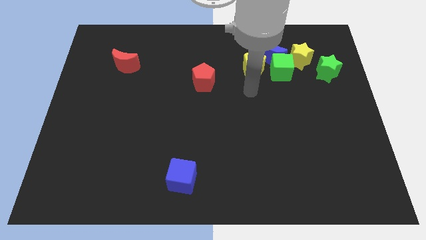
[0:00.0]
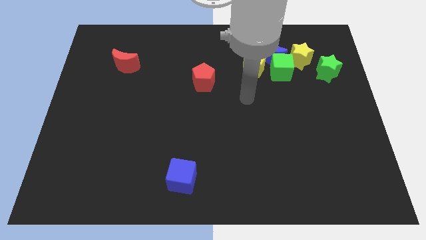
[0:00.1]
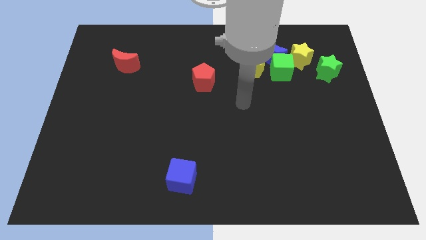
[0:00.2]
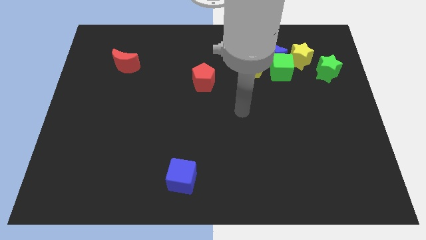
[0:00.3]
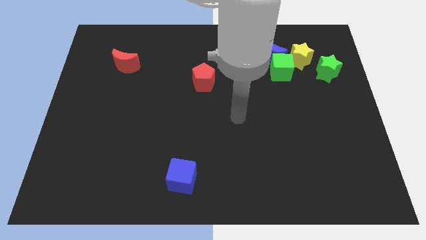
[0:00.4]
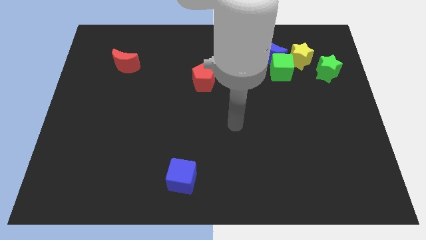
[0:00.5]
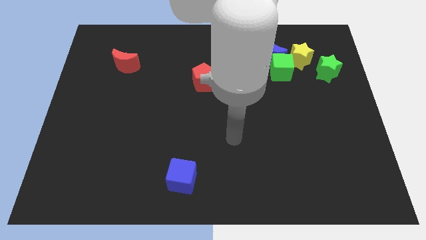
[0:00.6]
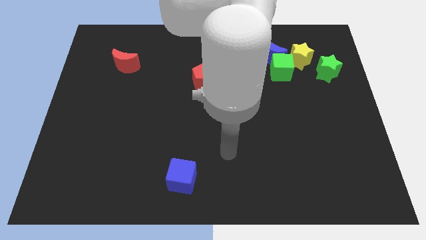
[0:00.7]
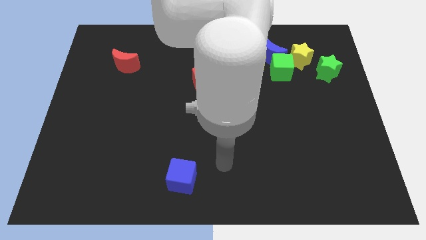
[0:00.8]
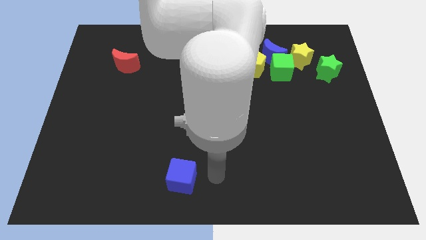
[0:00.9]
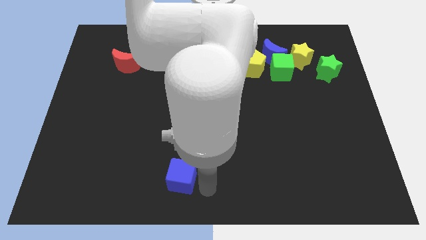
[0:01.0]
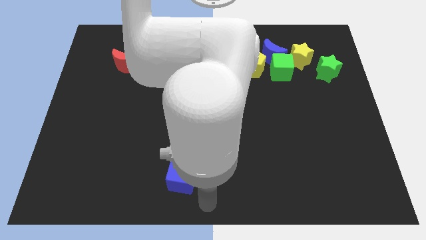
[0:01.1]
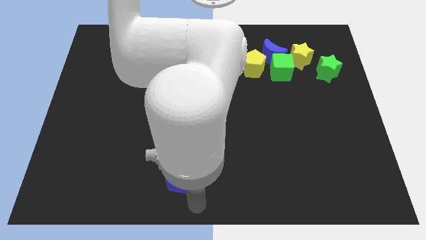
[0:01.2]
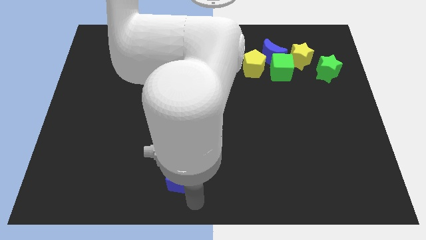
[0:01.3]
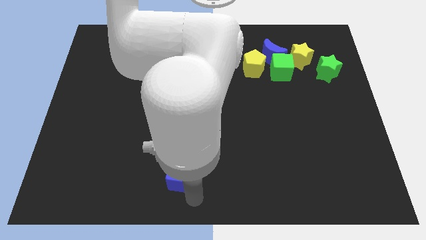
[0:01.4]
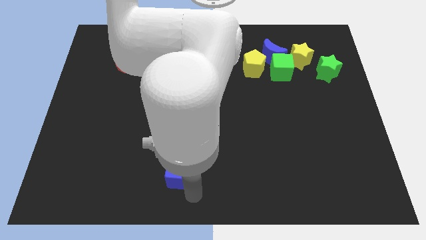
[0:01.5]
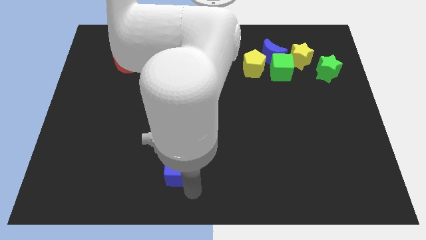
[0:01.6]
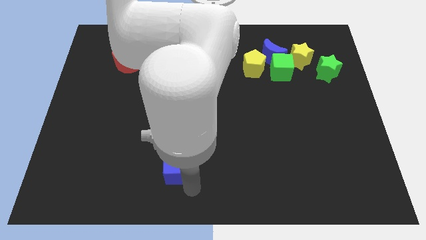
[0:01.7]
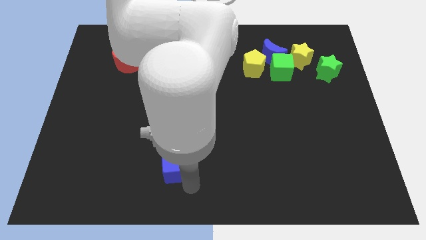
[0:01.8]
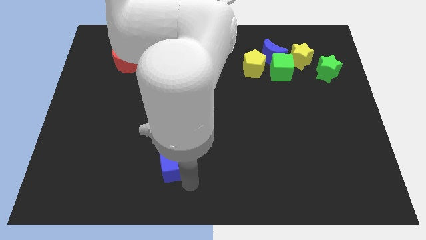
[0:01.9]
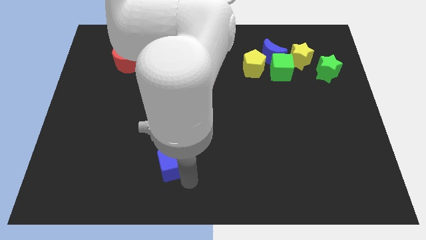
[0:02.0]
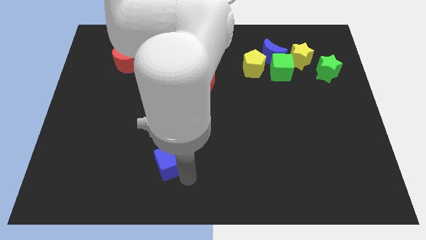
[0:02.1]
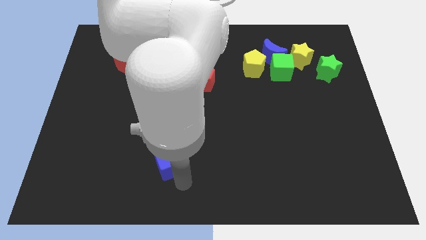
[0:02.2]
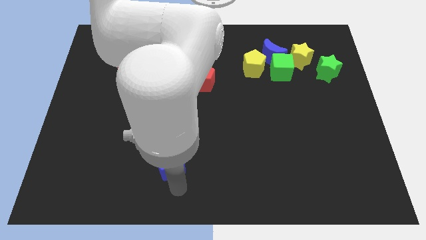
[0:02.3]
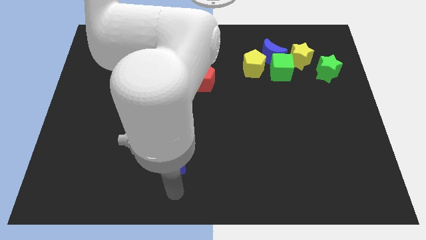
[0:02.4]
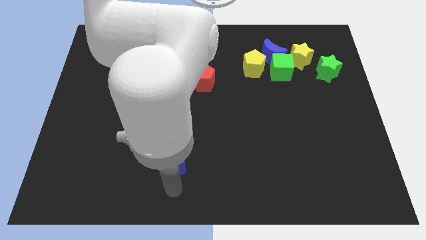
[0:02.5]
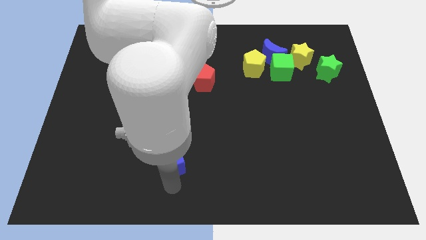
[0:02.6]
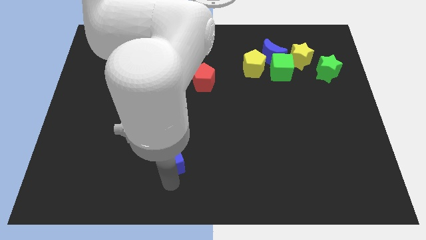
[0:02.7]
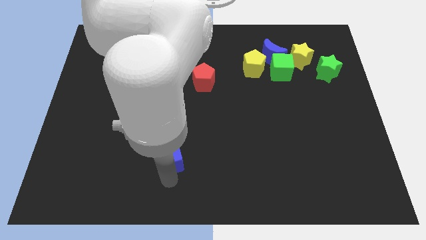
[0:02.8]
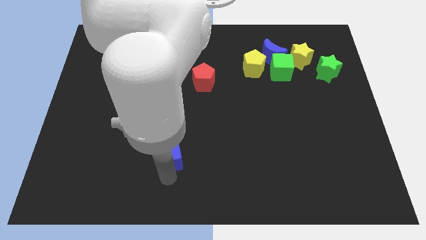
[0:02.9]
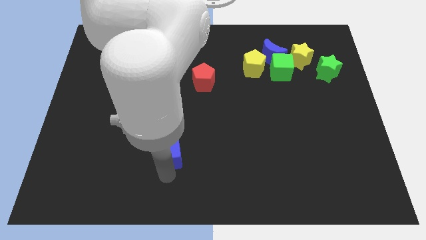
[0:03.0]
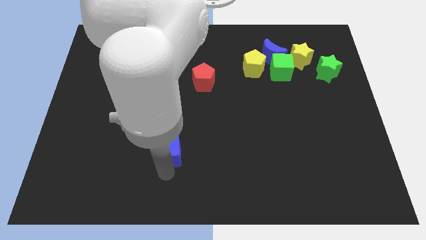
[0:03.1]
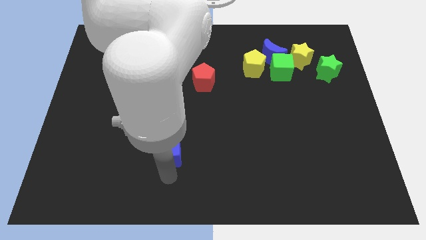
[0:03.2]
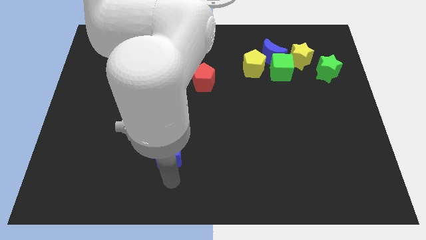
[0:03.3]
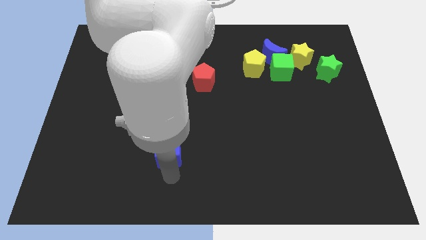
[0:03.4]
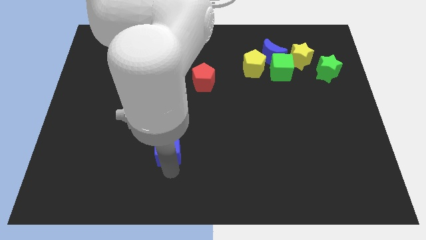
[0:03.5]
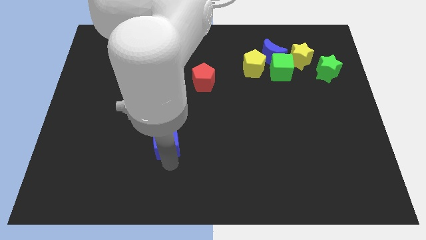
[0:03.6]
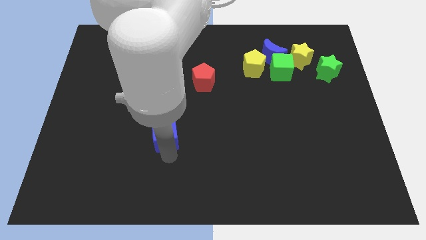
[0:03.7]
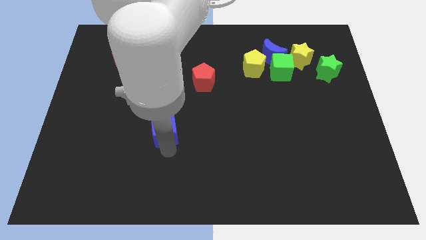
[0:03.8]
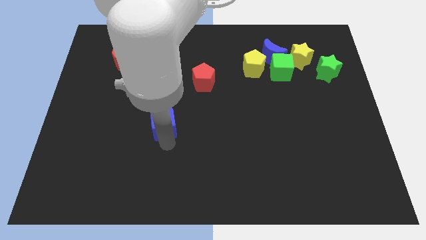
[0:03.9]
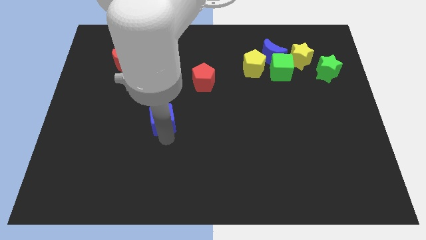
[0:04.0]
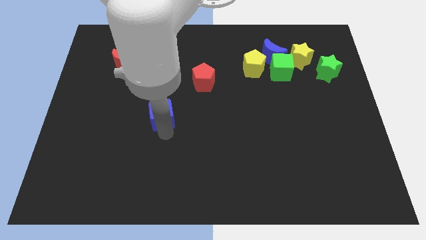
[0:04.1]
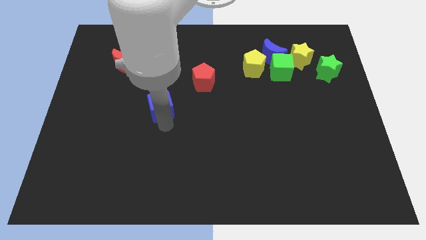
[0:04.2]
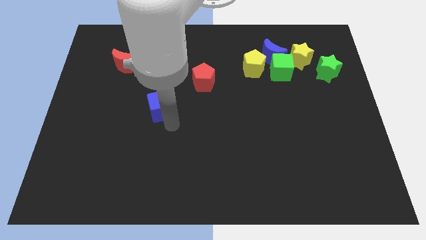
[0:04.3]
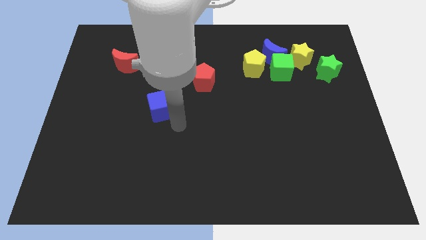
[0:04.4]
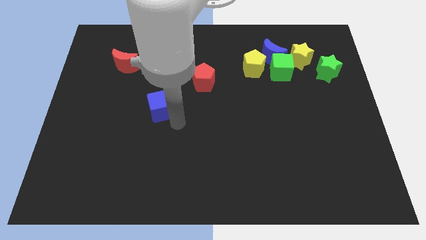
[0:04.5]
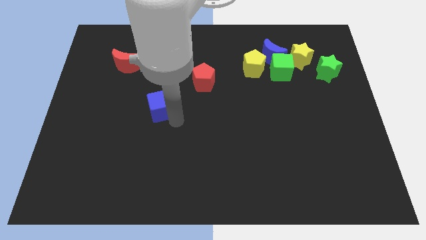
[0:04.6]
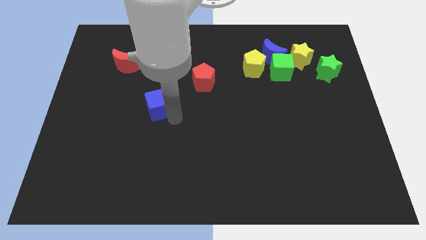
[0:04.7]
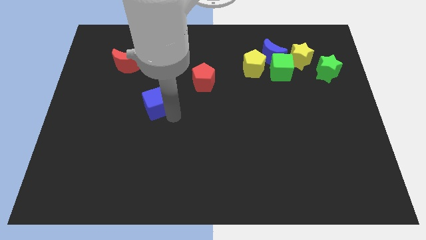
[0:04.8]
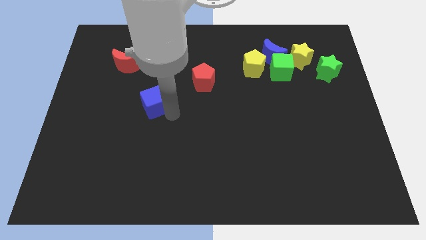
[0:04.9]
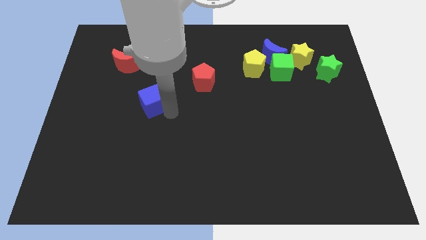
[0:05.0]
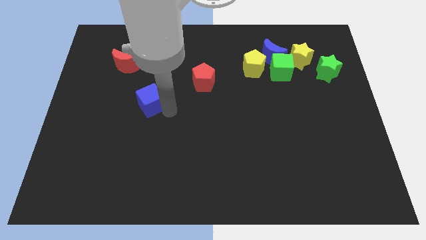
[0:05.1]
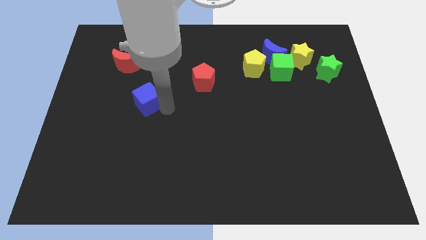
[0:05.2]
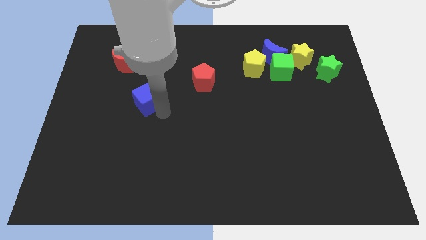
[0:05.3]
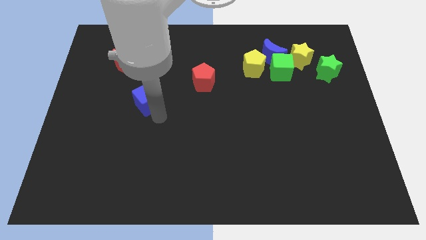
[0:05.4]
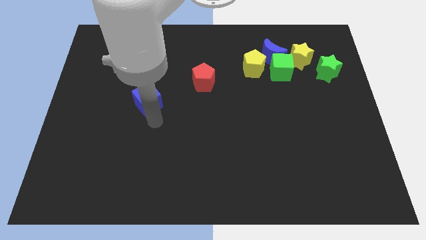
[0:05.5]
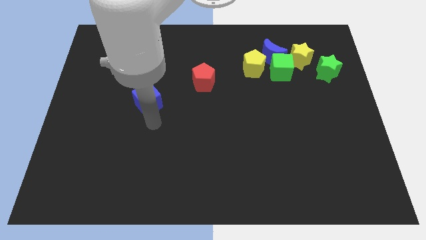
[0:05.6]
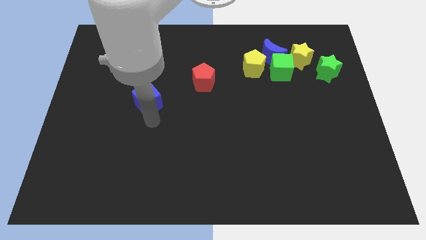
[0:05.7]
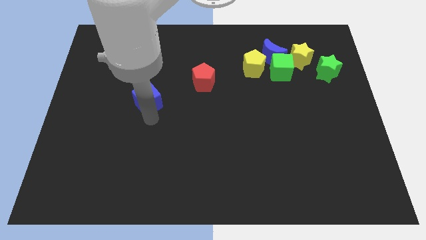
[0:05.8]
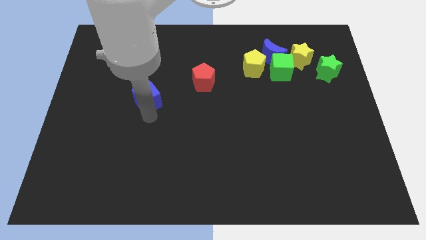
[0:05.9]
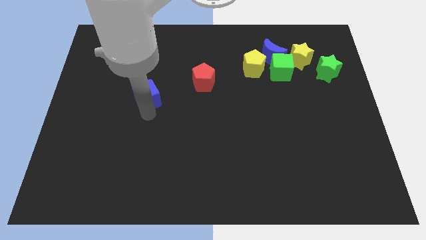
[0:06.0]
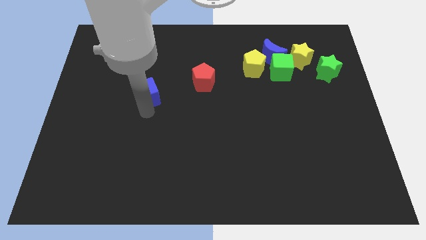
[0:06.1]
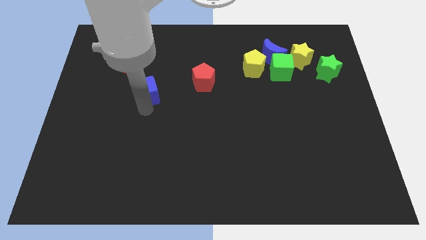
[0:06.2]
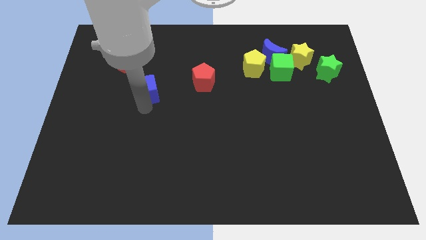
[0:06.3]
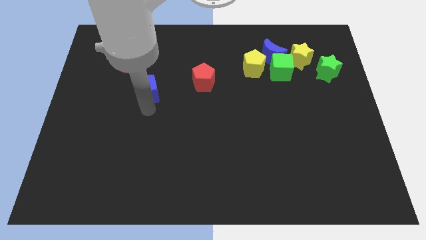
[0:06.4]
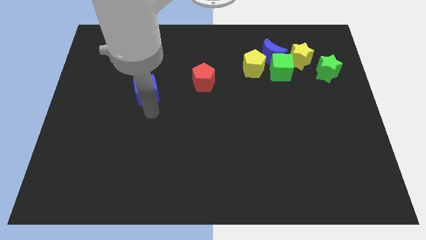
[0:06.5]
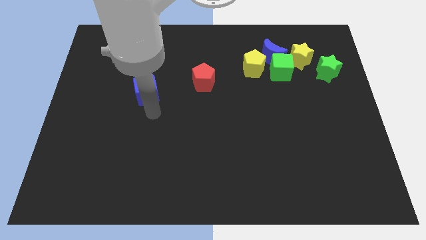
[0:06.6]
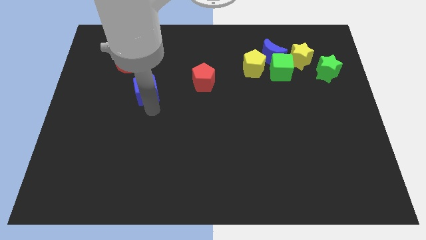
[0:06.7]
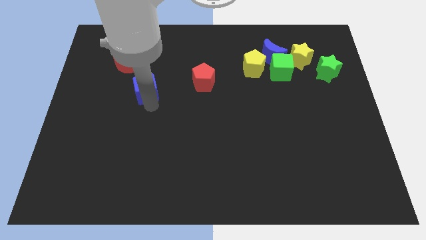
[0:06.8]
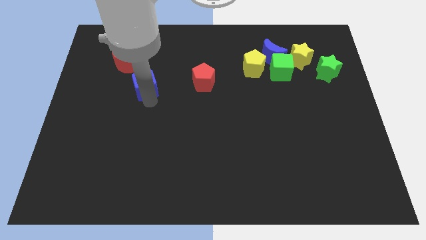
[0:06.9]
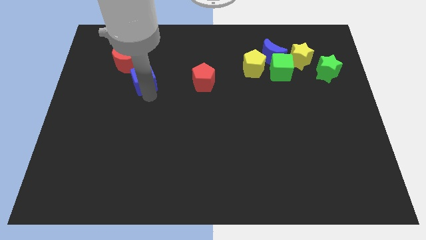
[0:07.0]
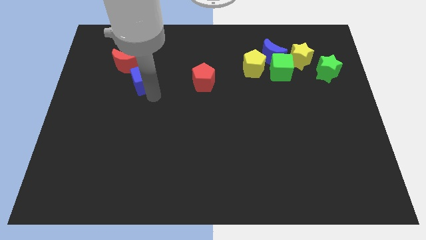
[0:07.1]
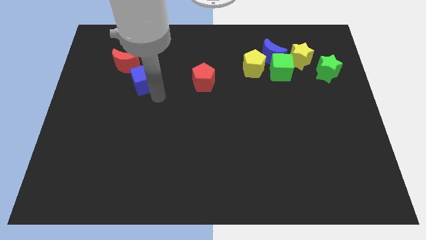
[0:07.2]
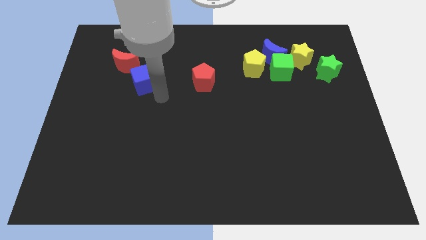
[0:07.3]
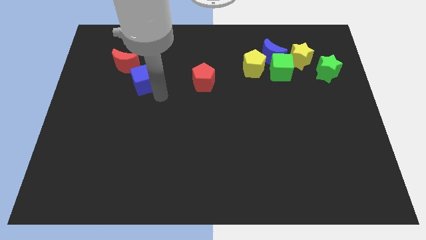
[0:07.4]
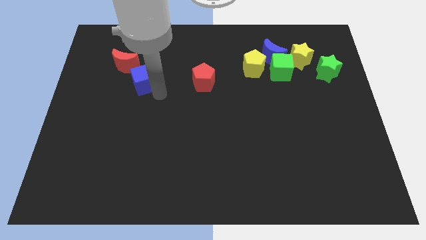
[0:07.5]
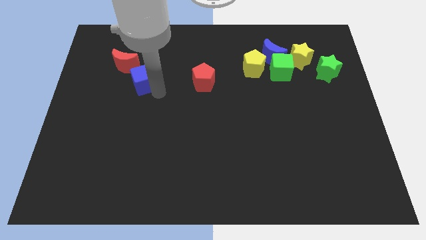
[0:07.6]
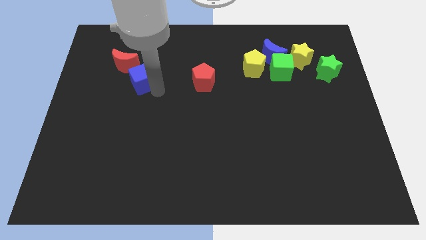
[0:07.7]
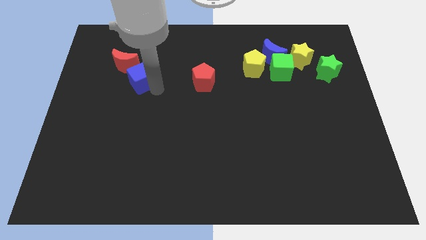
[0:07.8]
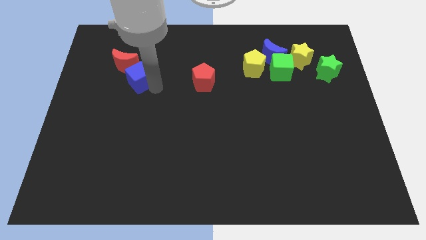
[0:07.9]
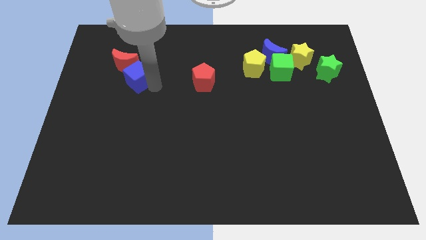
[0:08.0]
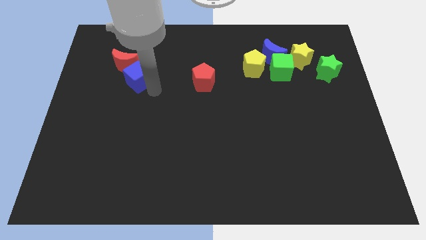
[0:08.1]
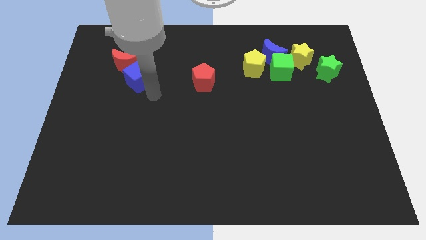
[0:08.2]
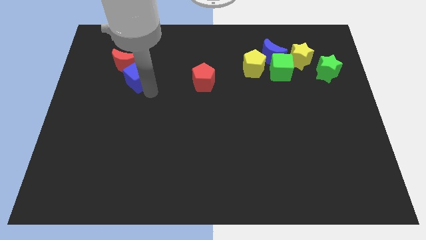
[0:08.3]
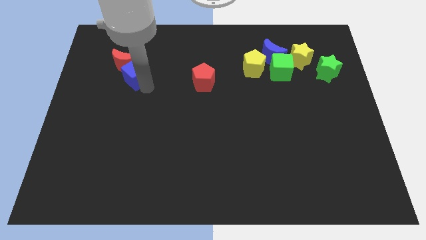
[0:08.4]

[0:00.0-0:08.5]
push the blue cube towards the red moon
